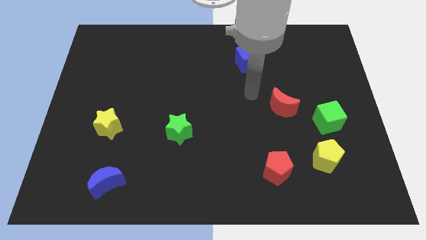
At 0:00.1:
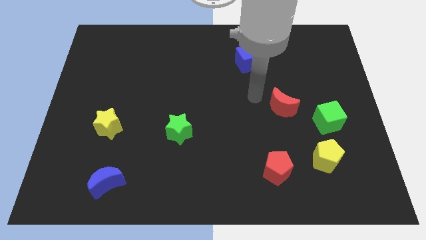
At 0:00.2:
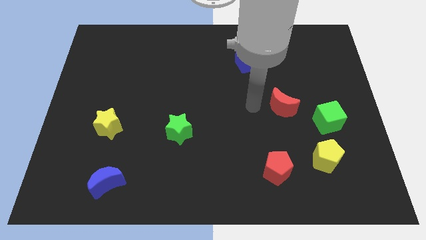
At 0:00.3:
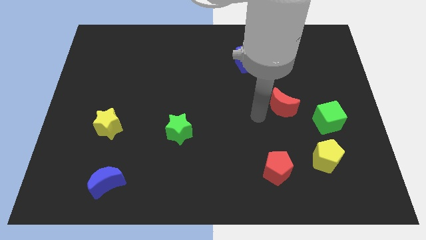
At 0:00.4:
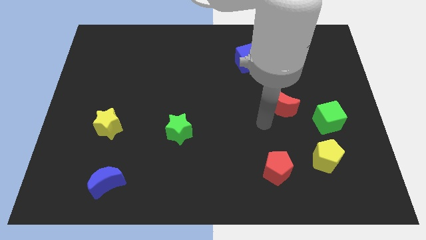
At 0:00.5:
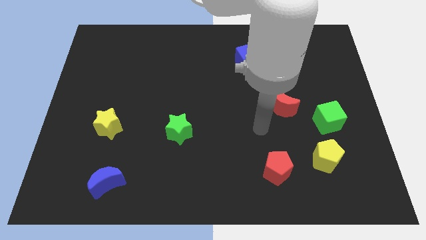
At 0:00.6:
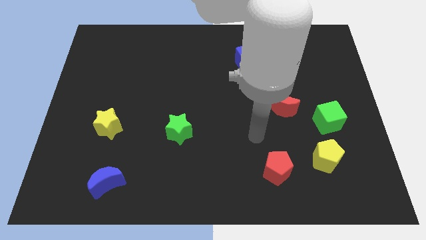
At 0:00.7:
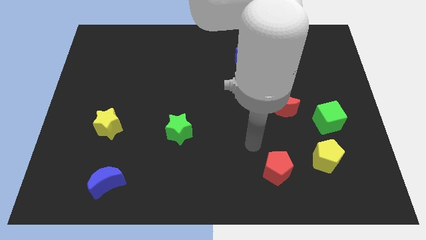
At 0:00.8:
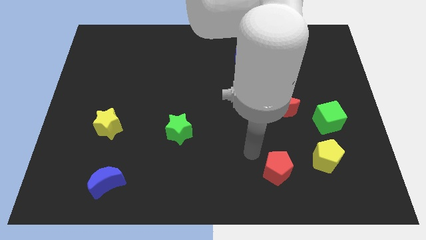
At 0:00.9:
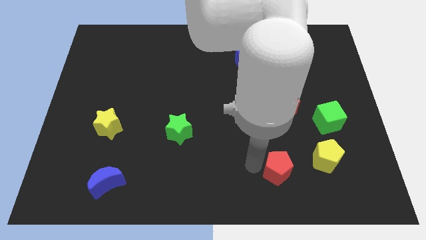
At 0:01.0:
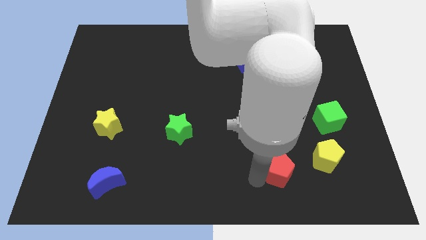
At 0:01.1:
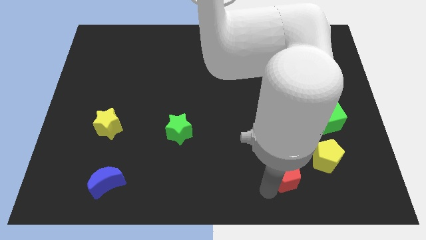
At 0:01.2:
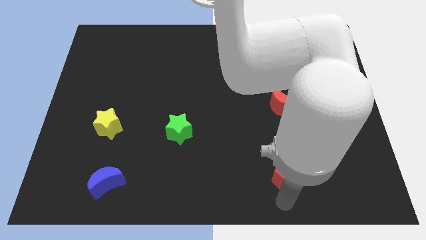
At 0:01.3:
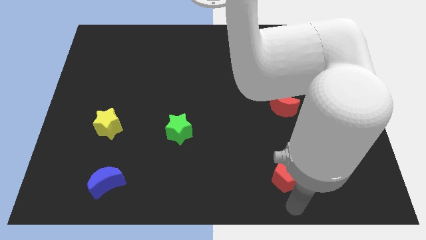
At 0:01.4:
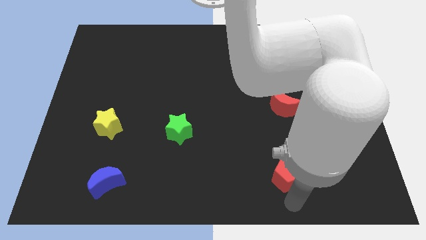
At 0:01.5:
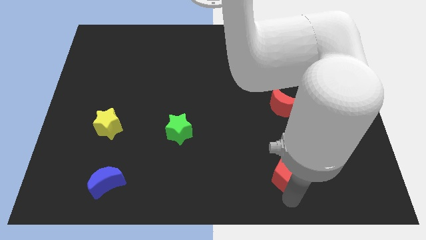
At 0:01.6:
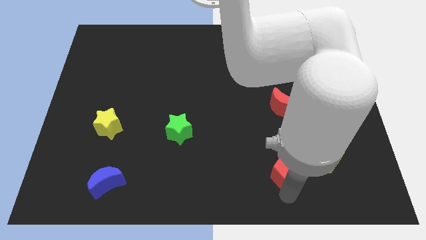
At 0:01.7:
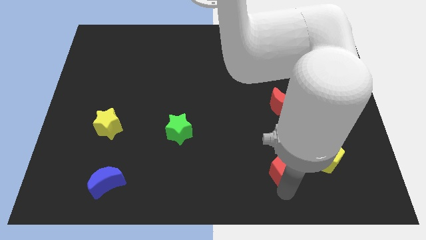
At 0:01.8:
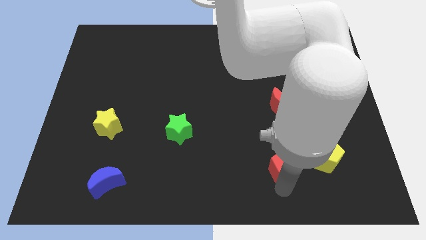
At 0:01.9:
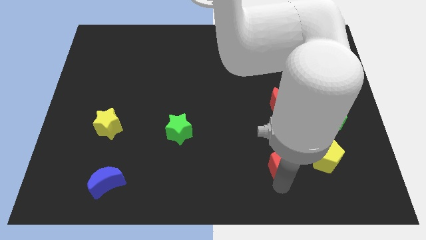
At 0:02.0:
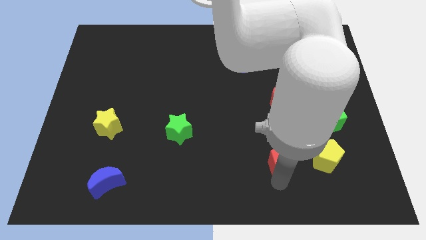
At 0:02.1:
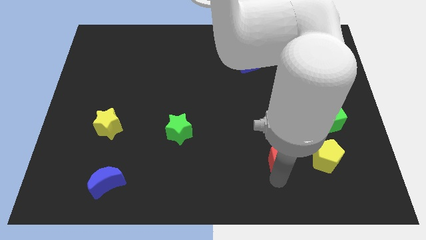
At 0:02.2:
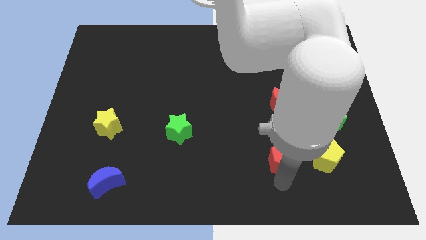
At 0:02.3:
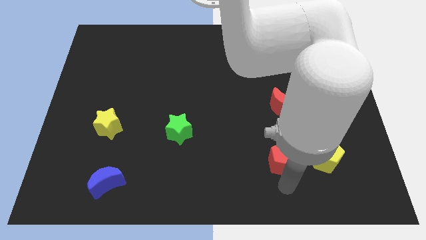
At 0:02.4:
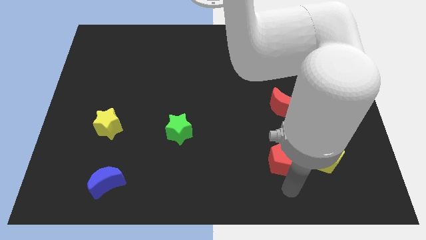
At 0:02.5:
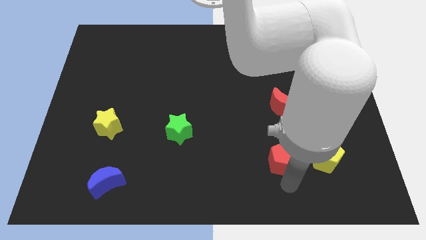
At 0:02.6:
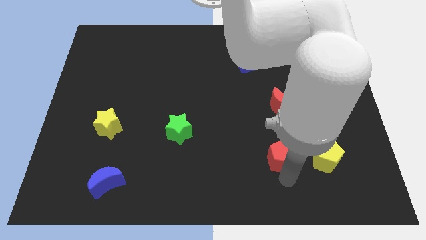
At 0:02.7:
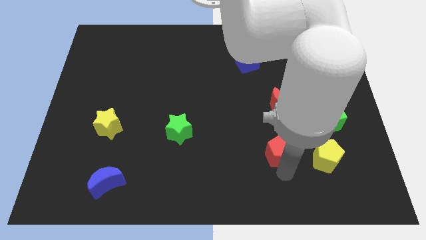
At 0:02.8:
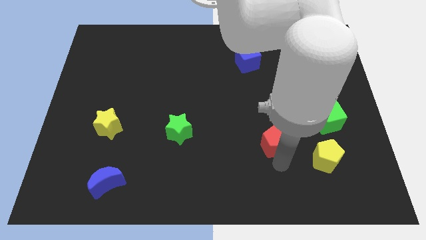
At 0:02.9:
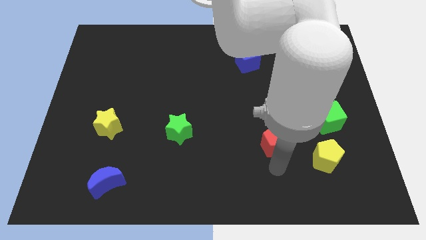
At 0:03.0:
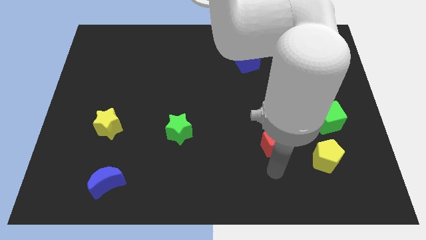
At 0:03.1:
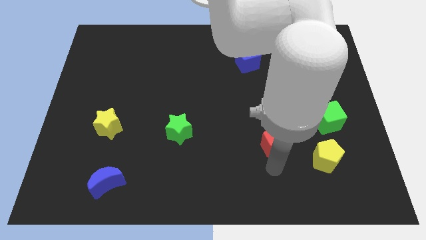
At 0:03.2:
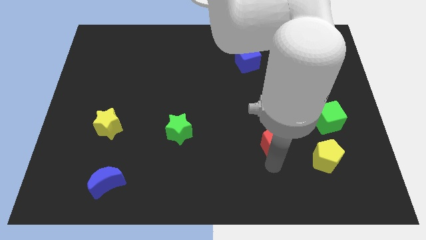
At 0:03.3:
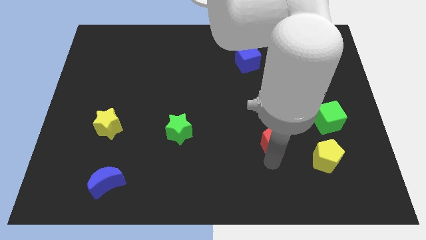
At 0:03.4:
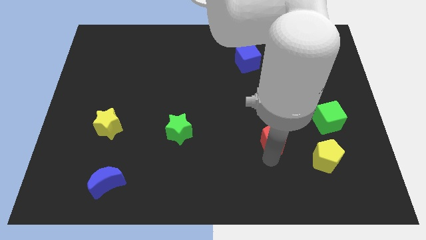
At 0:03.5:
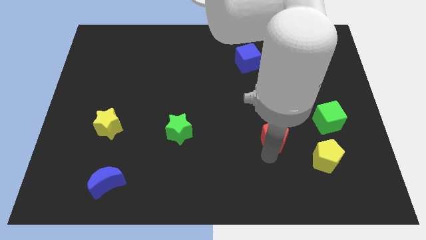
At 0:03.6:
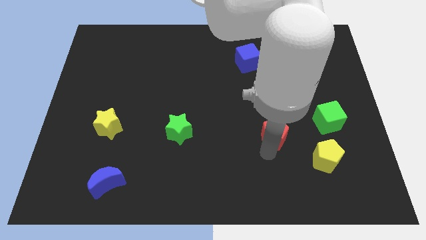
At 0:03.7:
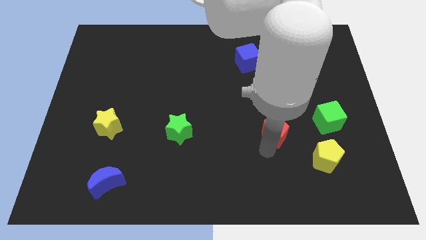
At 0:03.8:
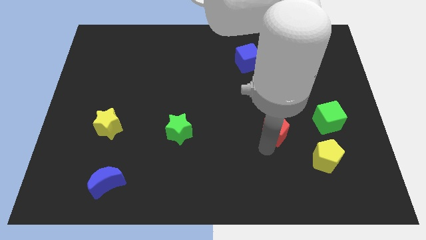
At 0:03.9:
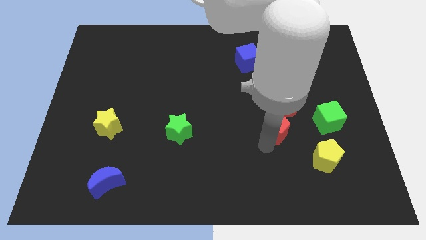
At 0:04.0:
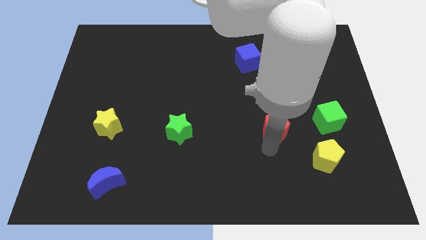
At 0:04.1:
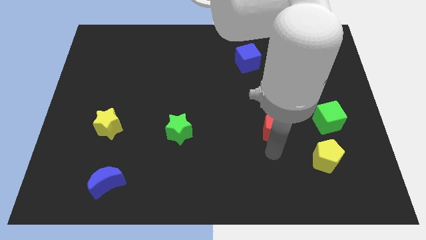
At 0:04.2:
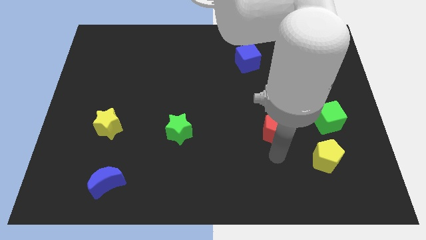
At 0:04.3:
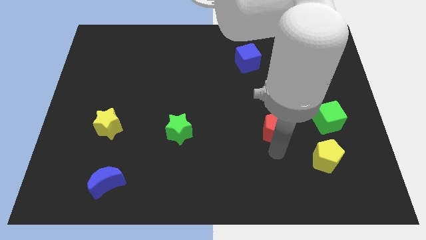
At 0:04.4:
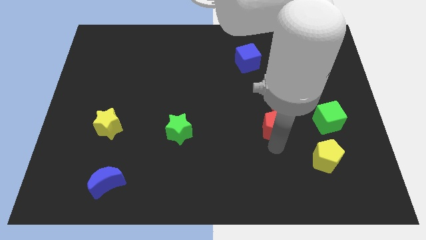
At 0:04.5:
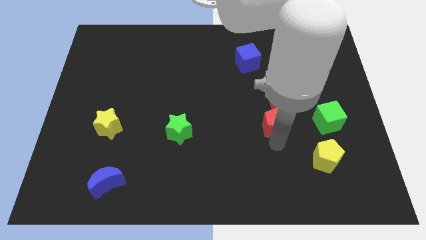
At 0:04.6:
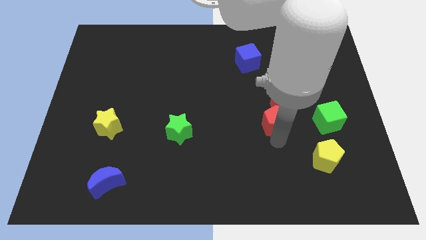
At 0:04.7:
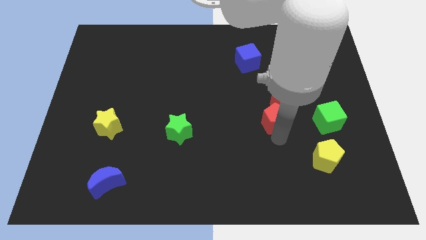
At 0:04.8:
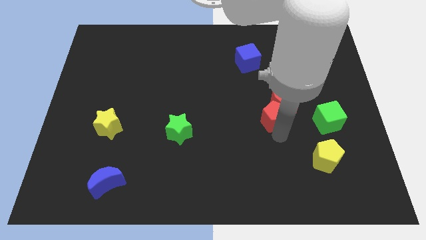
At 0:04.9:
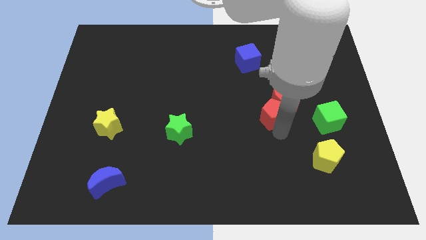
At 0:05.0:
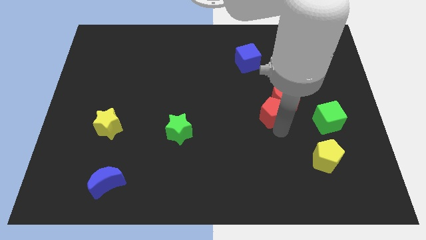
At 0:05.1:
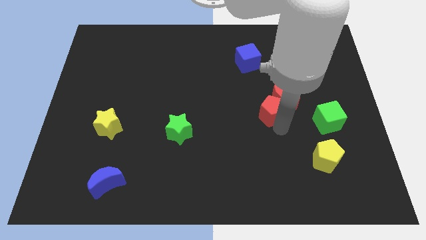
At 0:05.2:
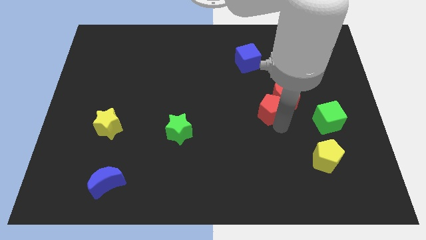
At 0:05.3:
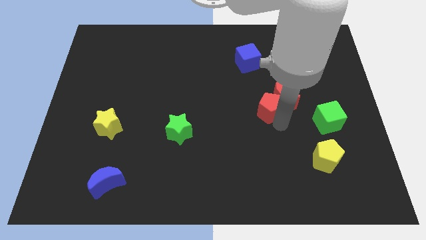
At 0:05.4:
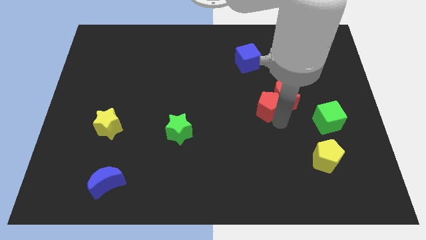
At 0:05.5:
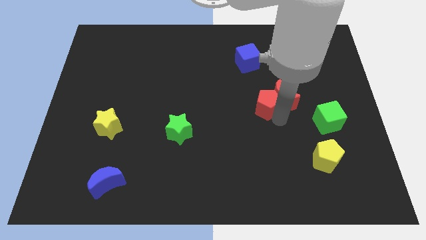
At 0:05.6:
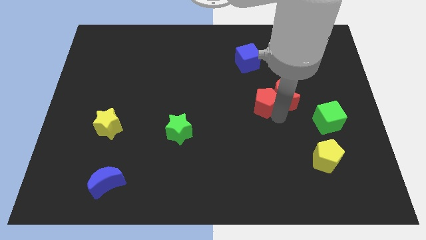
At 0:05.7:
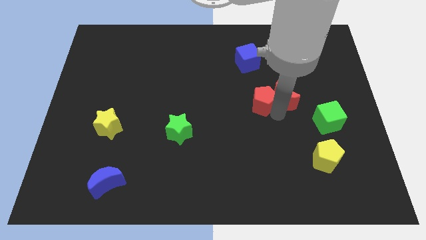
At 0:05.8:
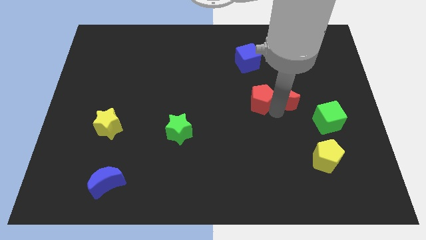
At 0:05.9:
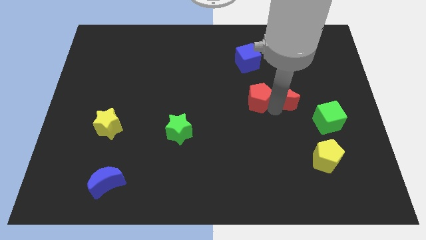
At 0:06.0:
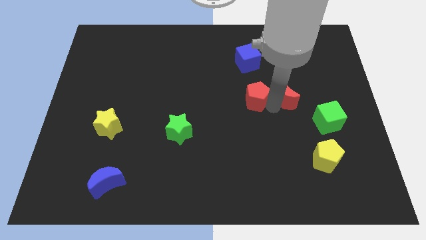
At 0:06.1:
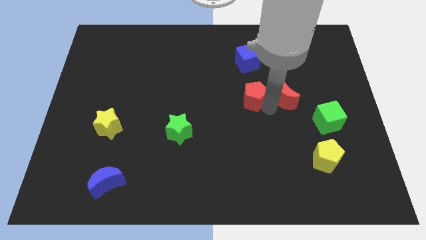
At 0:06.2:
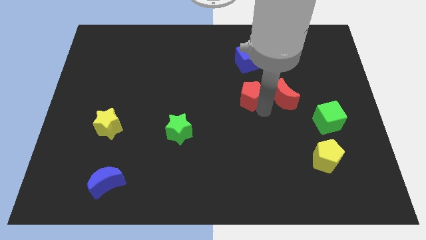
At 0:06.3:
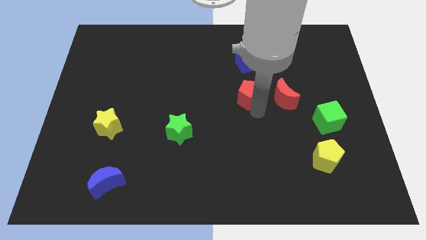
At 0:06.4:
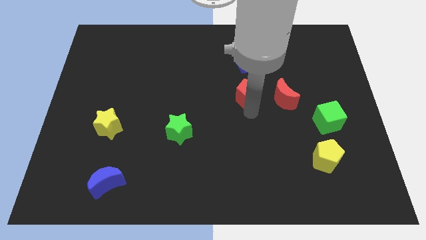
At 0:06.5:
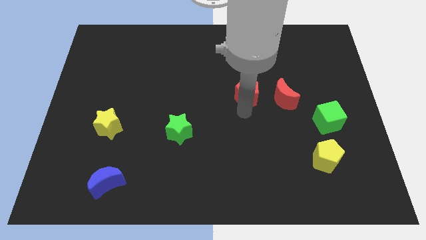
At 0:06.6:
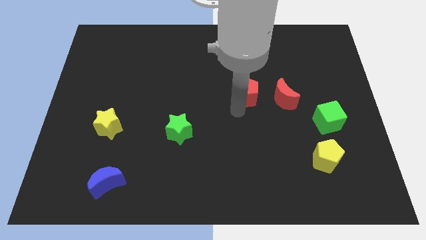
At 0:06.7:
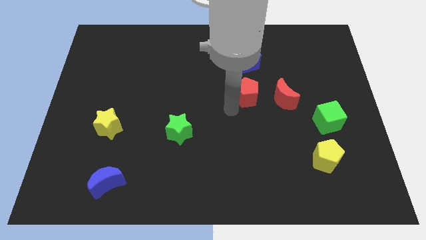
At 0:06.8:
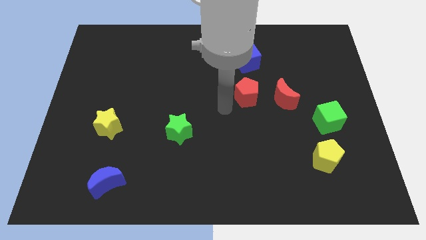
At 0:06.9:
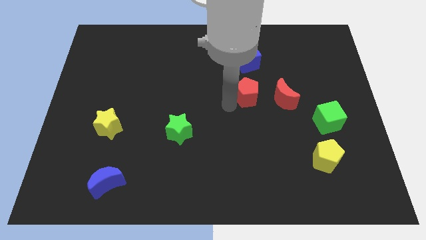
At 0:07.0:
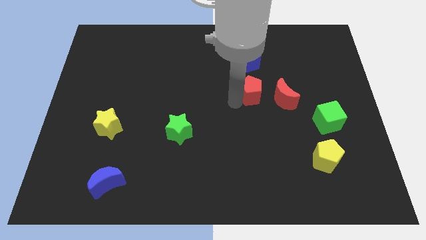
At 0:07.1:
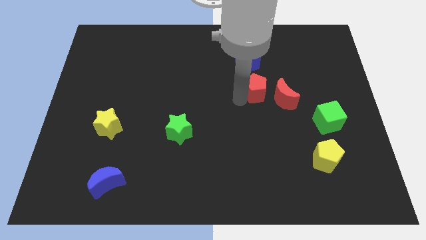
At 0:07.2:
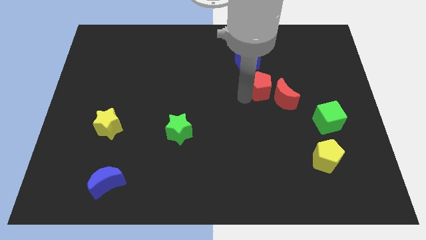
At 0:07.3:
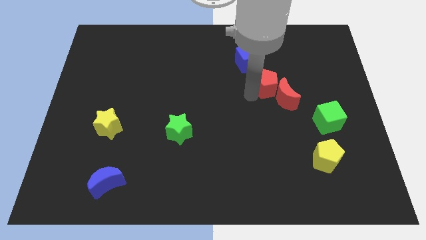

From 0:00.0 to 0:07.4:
push the red pentagon to the bottom right side of the blue cube
